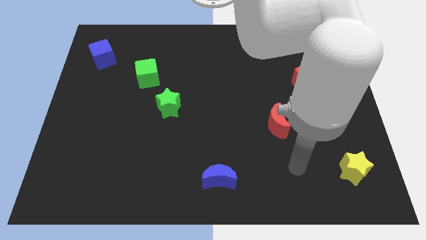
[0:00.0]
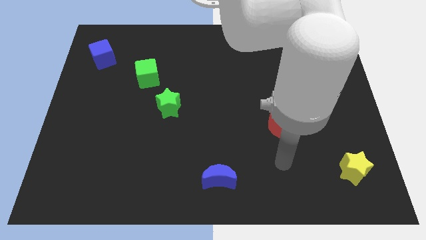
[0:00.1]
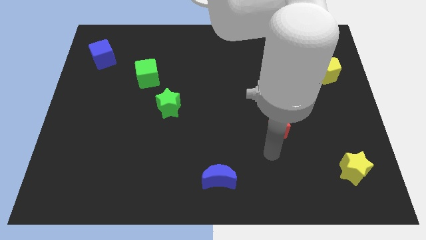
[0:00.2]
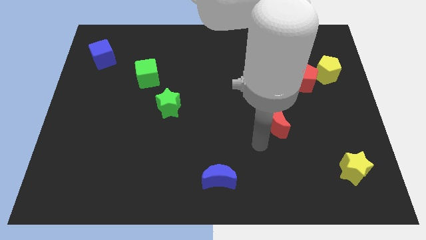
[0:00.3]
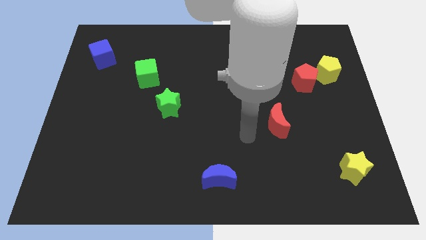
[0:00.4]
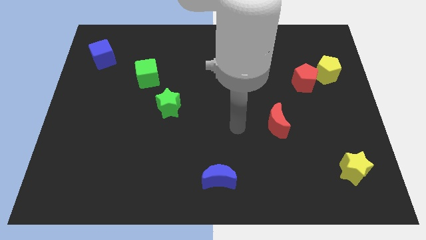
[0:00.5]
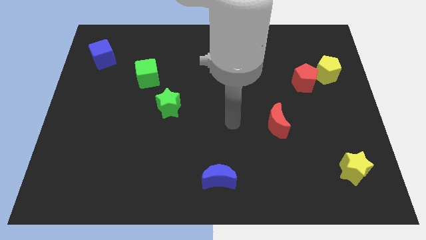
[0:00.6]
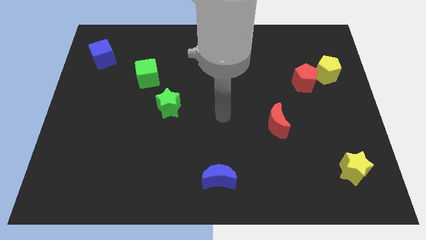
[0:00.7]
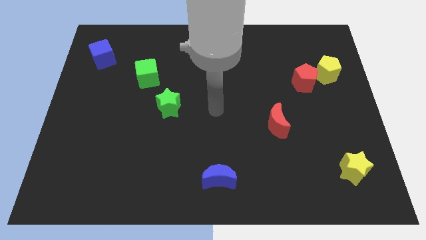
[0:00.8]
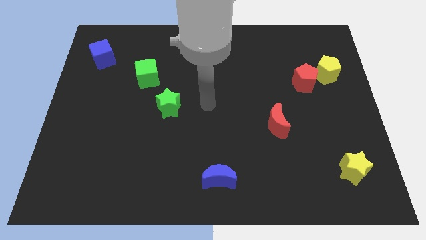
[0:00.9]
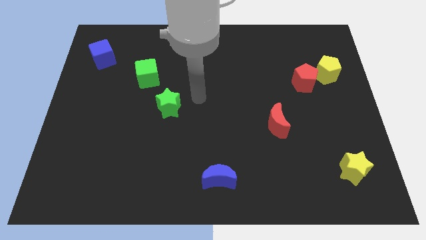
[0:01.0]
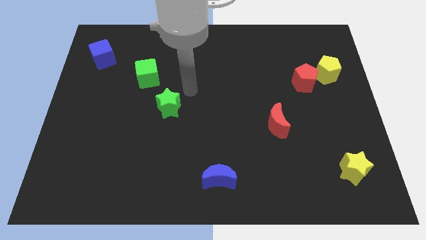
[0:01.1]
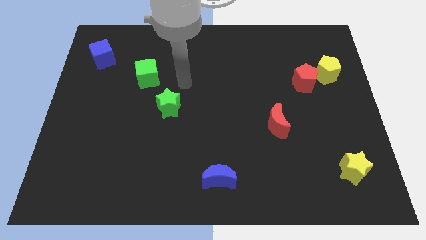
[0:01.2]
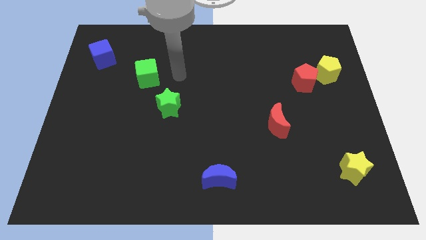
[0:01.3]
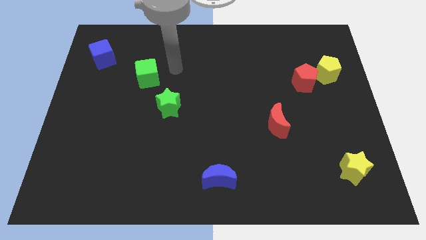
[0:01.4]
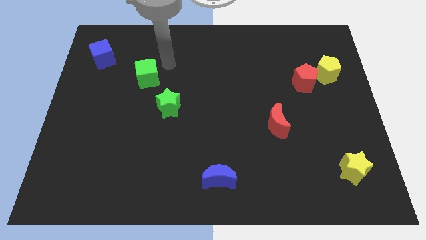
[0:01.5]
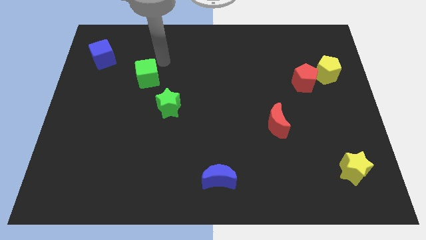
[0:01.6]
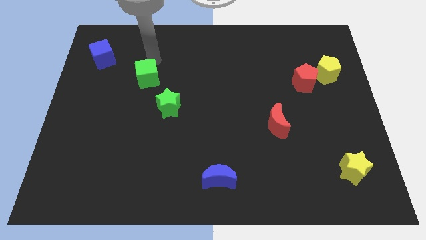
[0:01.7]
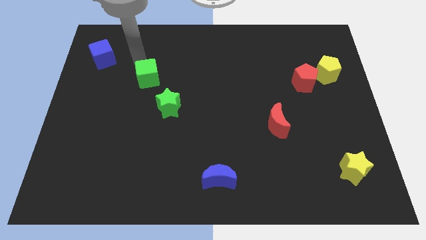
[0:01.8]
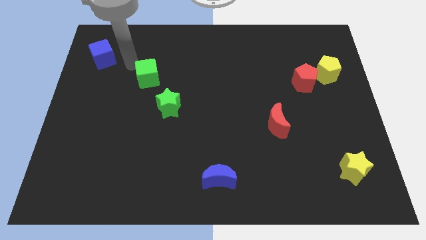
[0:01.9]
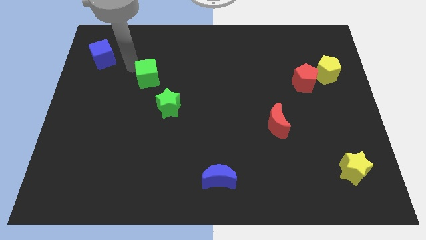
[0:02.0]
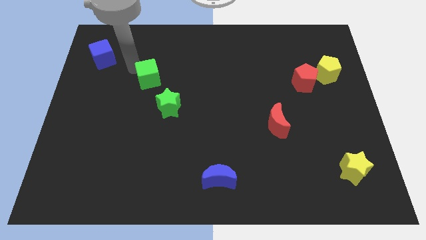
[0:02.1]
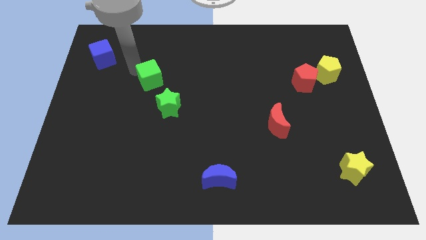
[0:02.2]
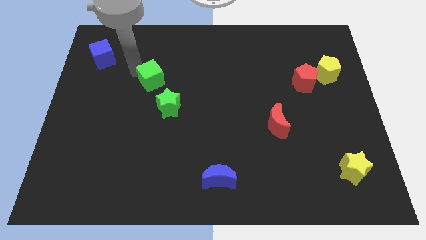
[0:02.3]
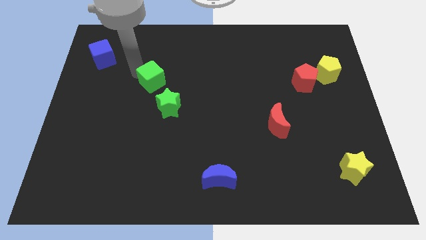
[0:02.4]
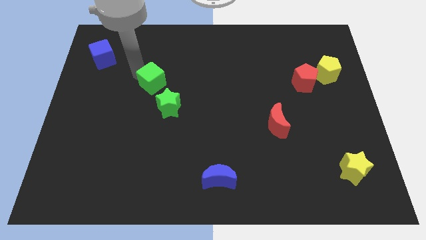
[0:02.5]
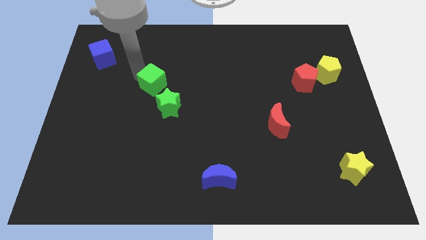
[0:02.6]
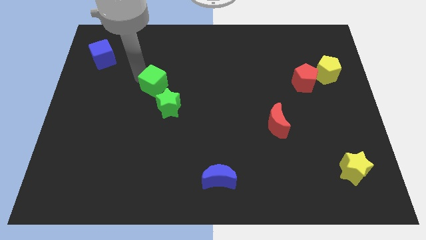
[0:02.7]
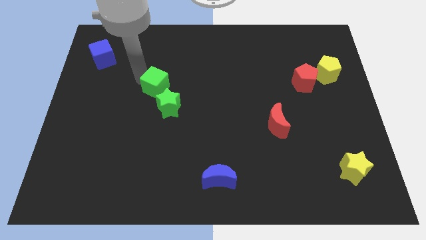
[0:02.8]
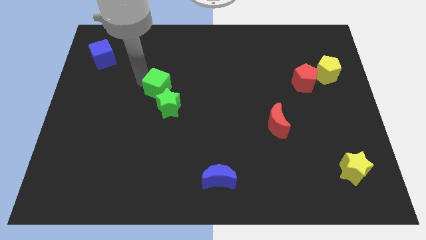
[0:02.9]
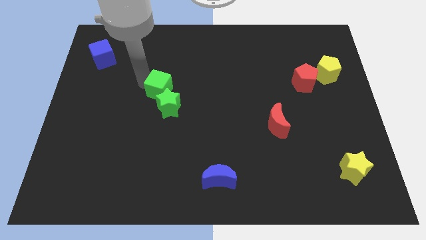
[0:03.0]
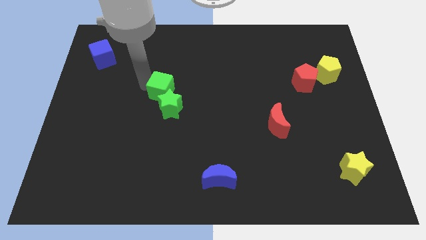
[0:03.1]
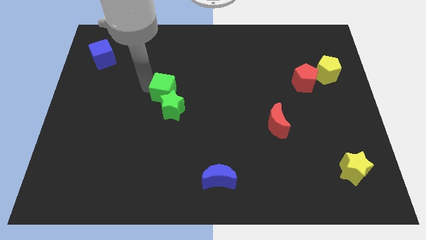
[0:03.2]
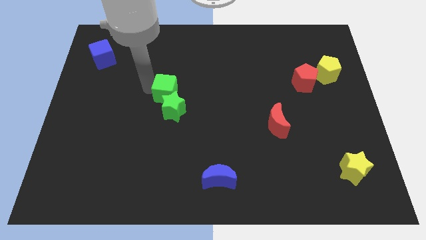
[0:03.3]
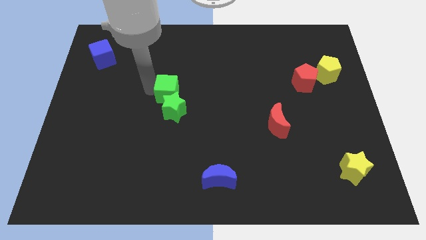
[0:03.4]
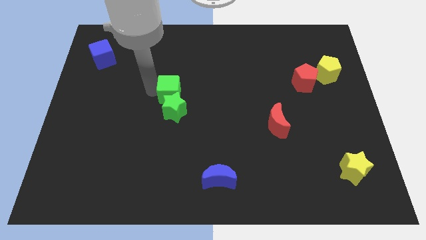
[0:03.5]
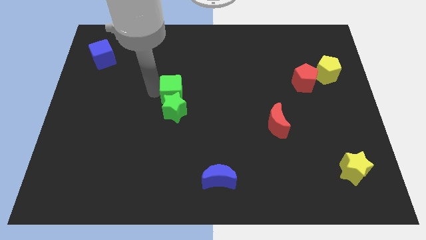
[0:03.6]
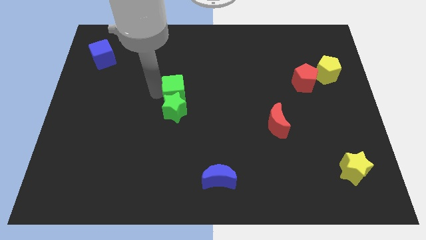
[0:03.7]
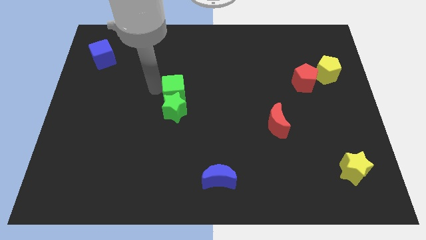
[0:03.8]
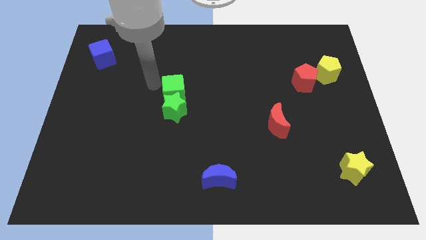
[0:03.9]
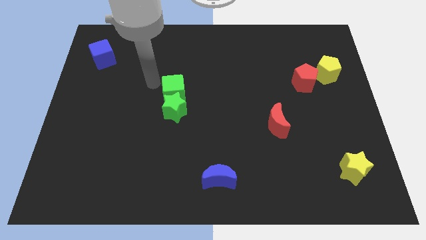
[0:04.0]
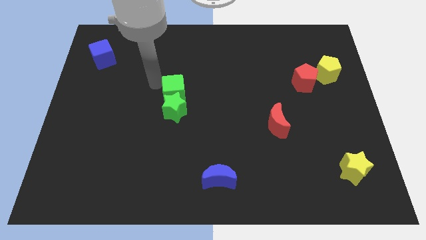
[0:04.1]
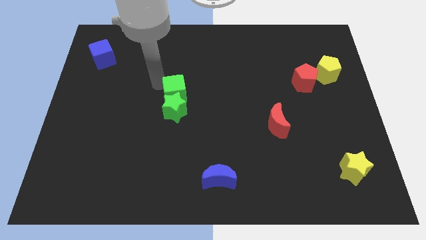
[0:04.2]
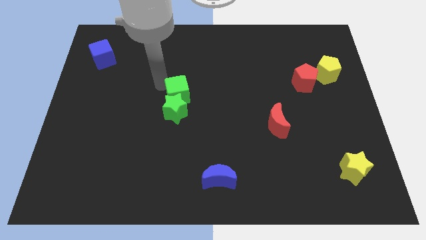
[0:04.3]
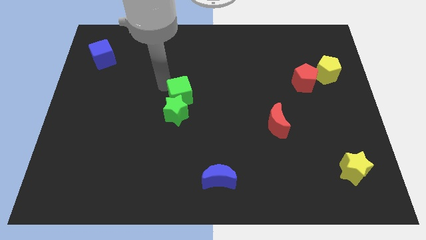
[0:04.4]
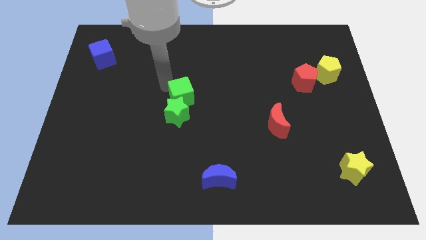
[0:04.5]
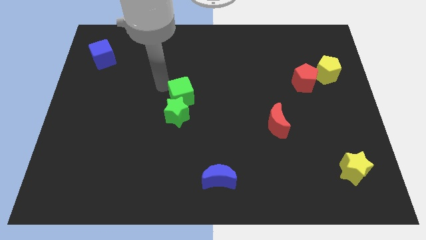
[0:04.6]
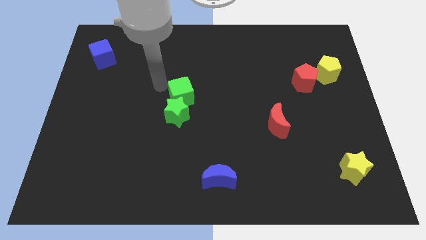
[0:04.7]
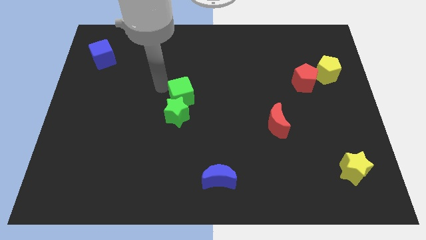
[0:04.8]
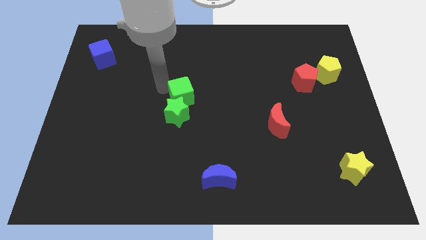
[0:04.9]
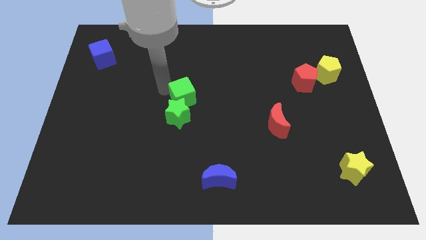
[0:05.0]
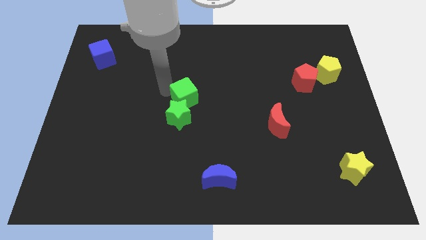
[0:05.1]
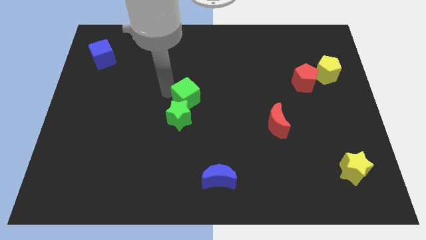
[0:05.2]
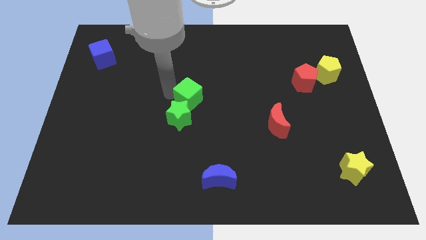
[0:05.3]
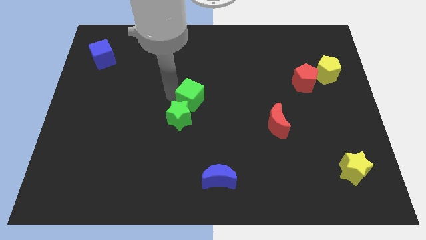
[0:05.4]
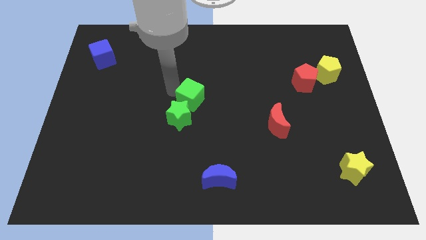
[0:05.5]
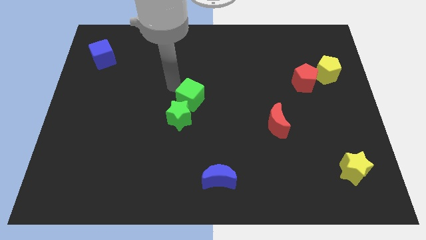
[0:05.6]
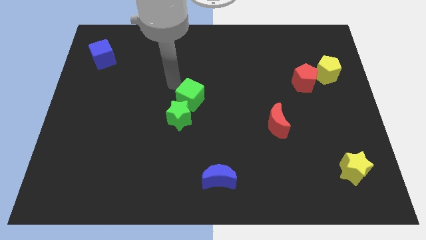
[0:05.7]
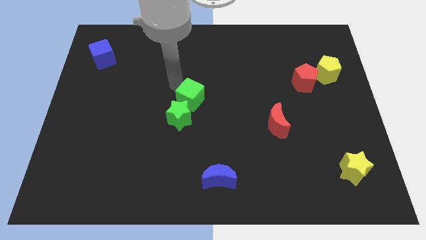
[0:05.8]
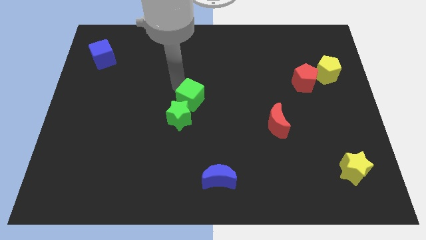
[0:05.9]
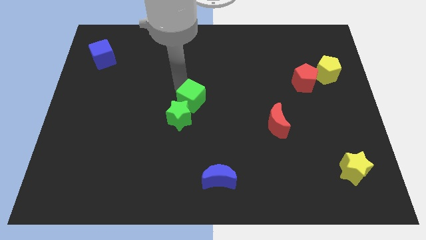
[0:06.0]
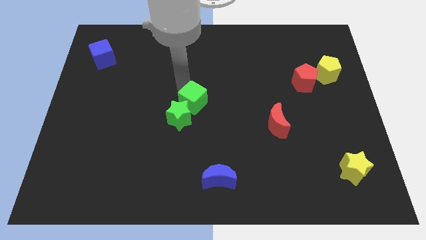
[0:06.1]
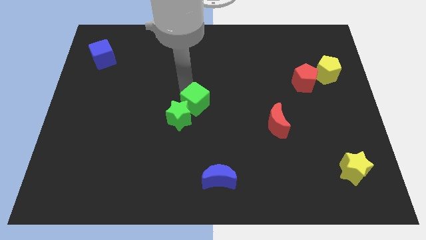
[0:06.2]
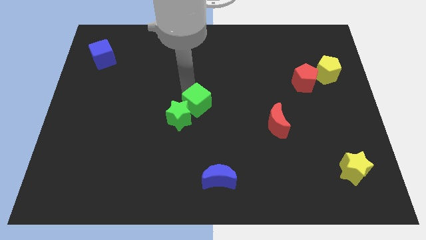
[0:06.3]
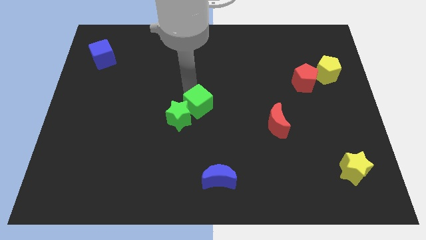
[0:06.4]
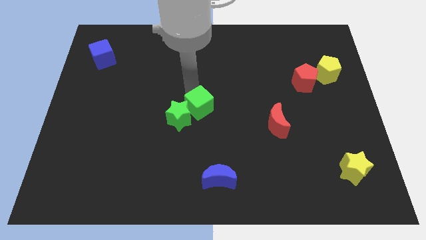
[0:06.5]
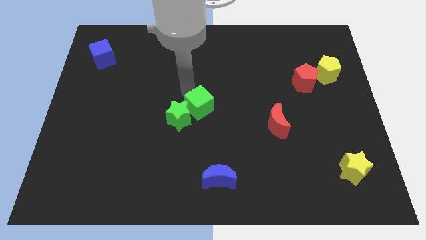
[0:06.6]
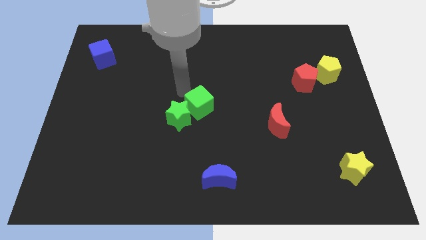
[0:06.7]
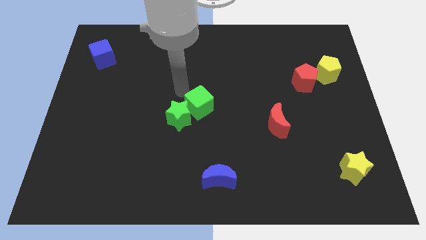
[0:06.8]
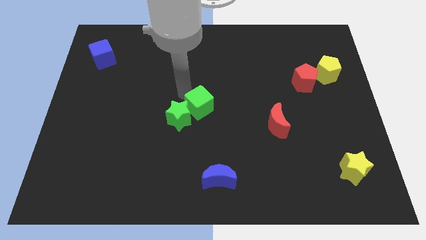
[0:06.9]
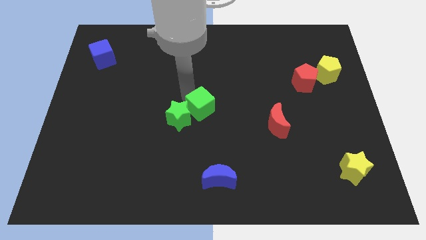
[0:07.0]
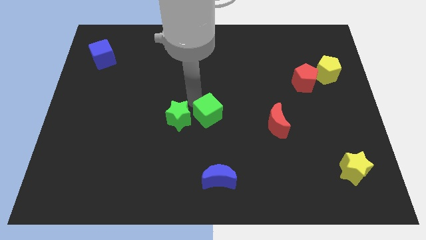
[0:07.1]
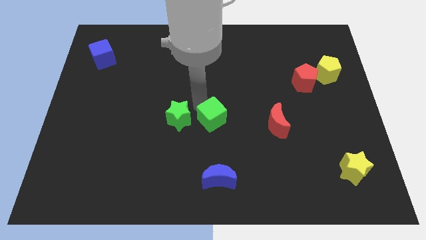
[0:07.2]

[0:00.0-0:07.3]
push the green cube diagonally downwards and to the right
